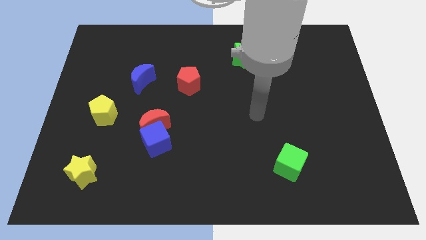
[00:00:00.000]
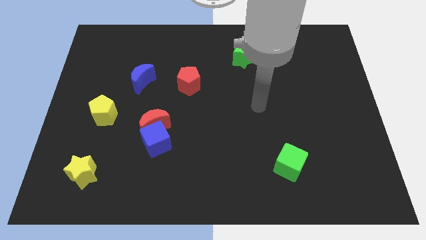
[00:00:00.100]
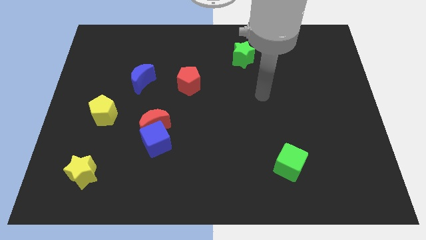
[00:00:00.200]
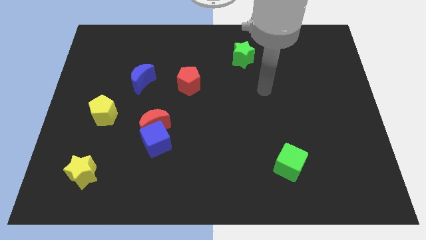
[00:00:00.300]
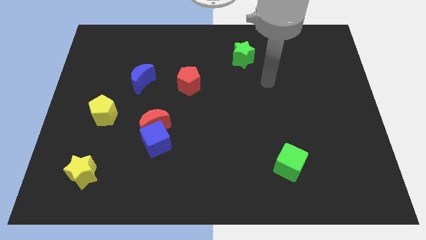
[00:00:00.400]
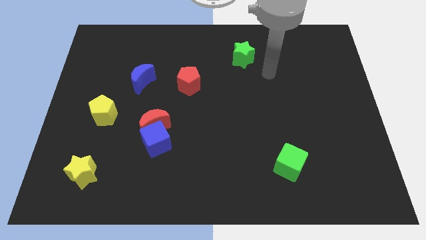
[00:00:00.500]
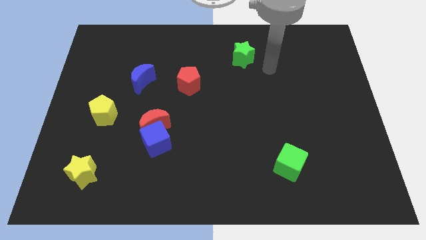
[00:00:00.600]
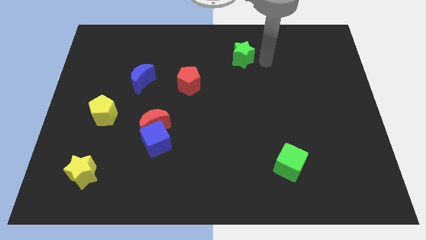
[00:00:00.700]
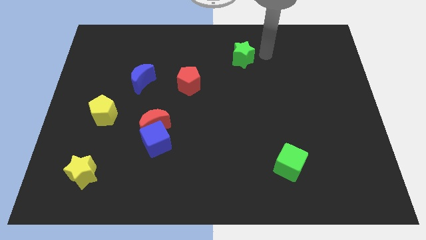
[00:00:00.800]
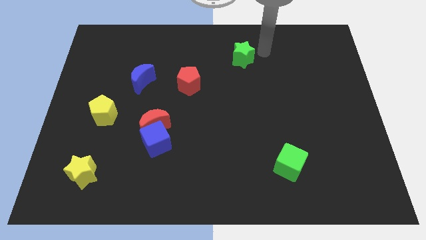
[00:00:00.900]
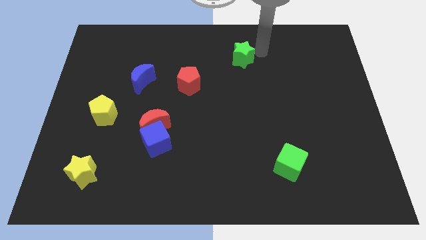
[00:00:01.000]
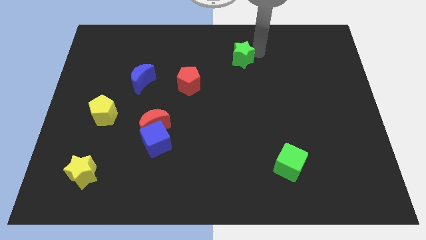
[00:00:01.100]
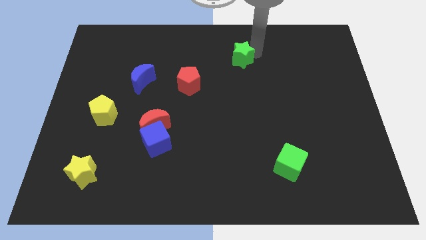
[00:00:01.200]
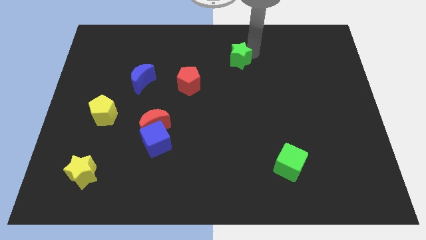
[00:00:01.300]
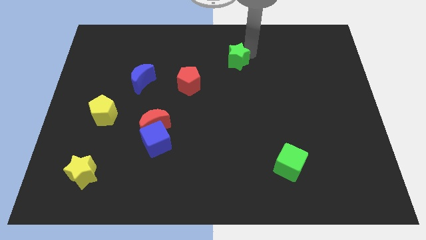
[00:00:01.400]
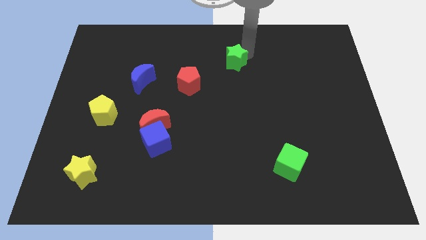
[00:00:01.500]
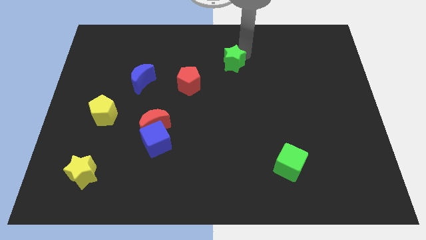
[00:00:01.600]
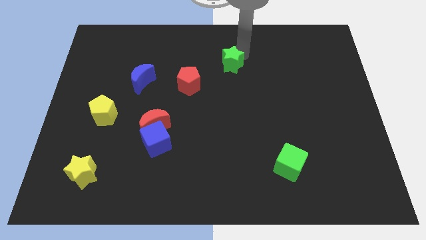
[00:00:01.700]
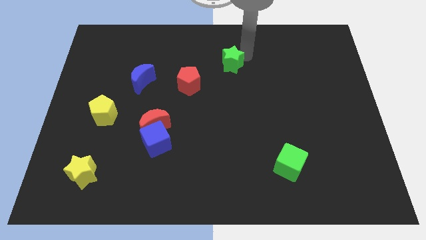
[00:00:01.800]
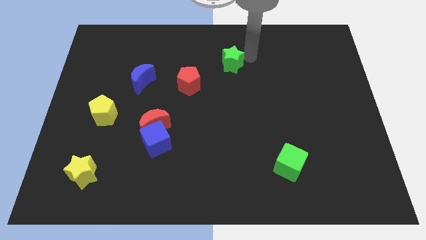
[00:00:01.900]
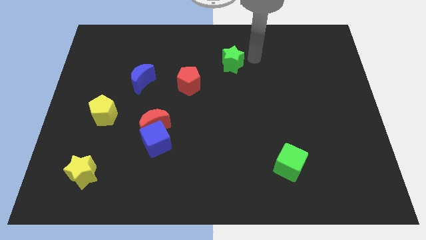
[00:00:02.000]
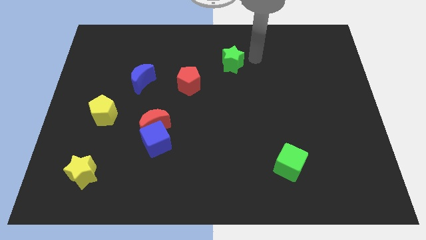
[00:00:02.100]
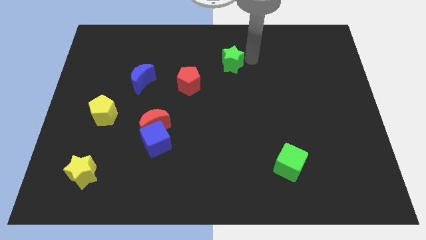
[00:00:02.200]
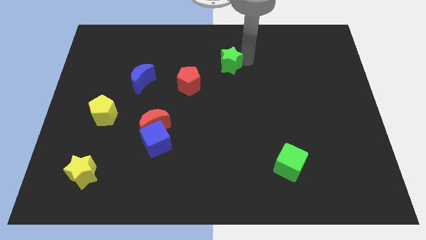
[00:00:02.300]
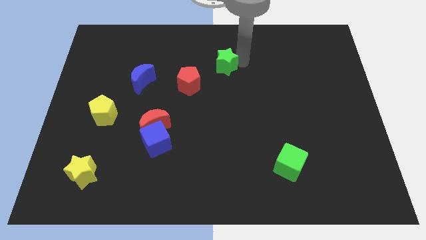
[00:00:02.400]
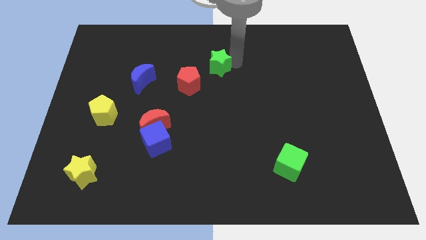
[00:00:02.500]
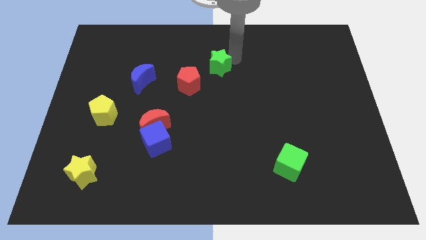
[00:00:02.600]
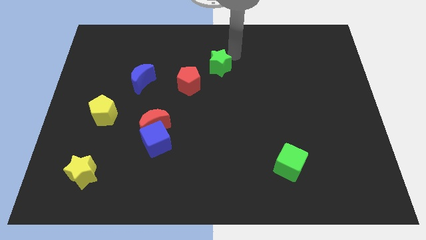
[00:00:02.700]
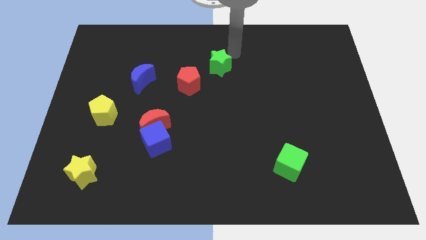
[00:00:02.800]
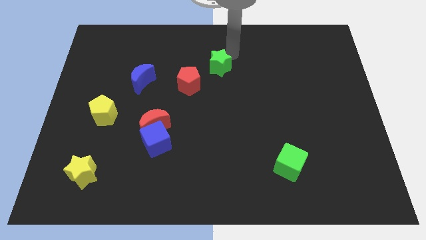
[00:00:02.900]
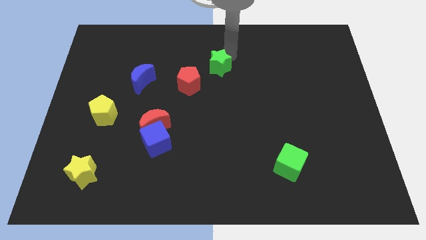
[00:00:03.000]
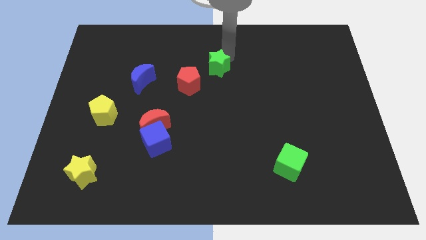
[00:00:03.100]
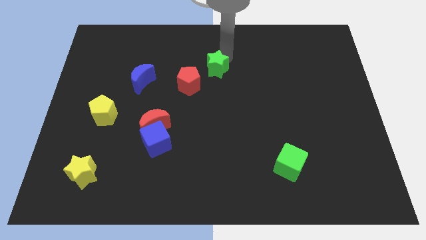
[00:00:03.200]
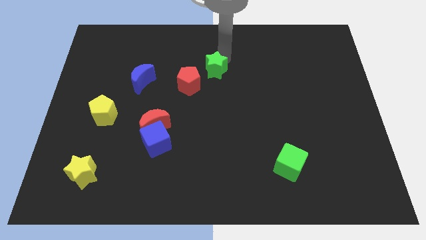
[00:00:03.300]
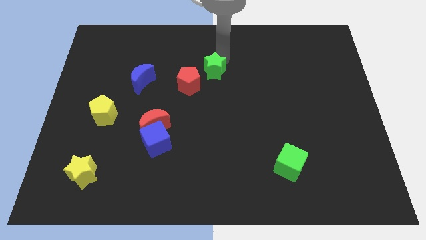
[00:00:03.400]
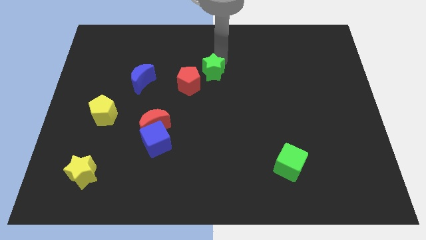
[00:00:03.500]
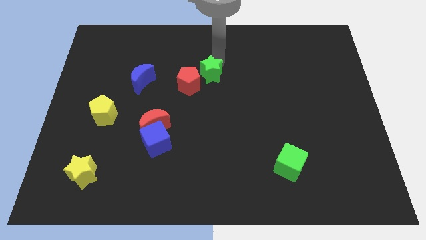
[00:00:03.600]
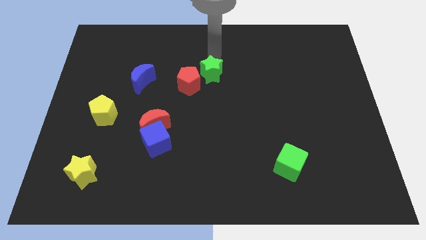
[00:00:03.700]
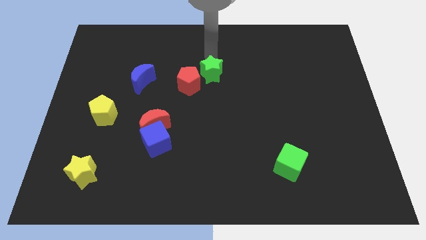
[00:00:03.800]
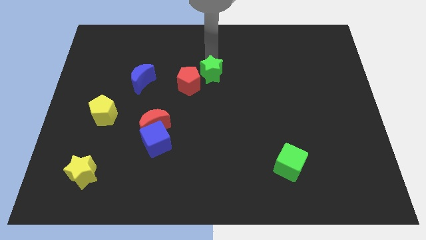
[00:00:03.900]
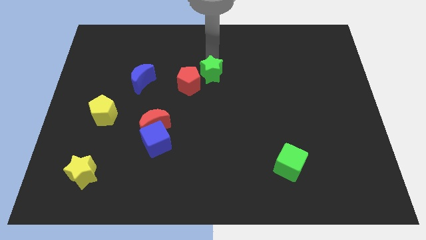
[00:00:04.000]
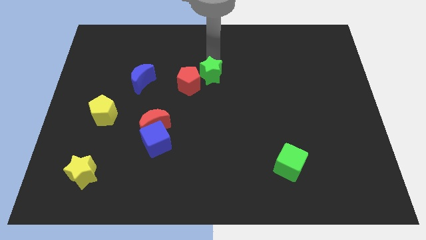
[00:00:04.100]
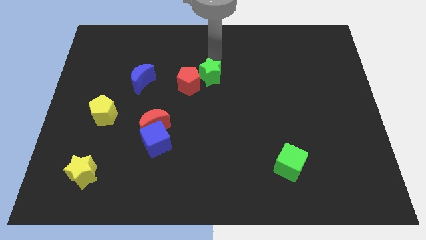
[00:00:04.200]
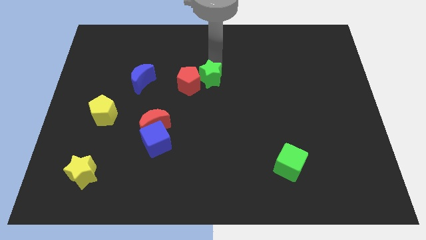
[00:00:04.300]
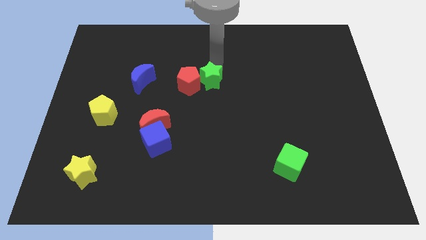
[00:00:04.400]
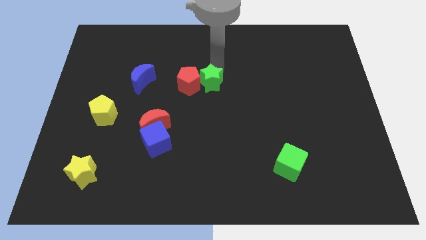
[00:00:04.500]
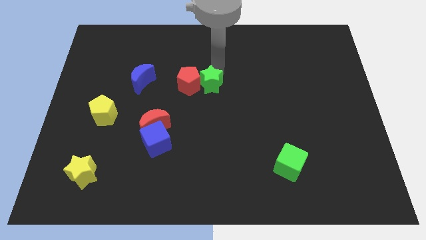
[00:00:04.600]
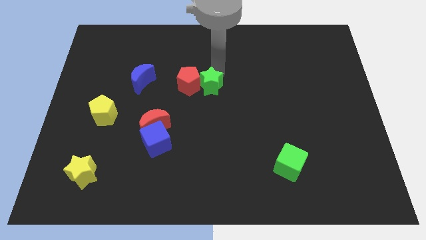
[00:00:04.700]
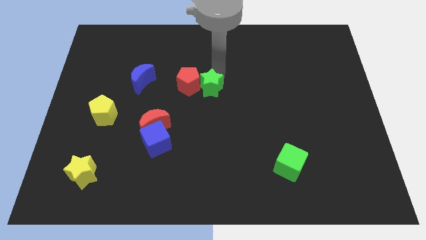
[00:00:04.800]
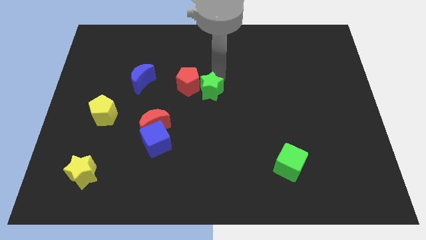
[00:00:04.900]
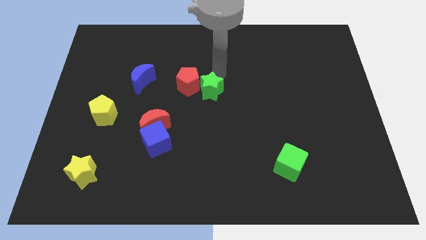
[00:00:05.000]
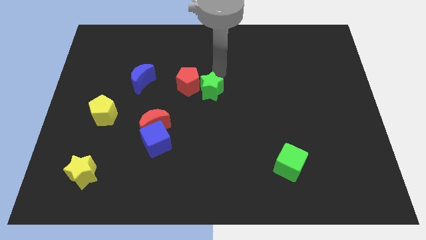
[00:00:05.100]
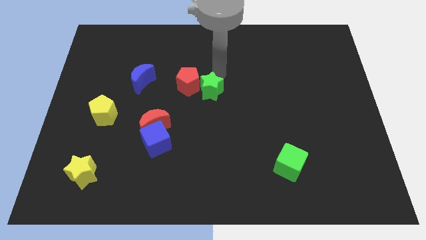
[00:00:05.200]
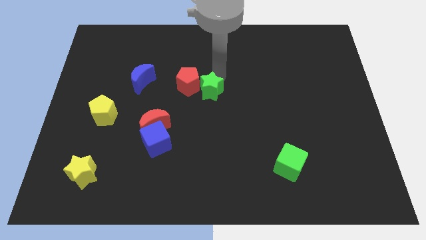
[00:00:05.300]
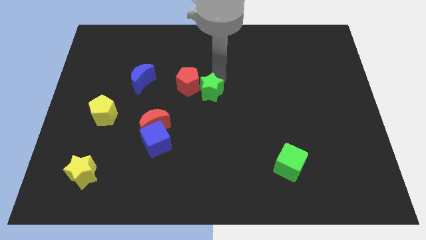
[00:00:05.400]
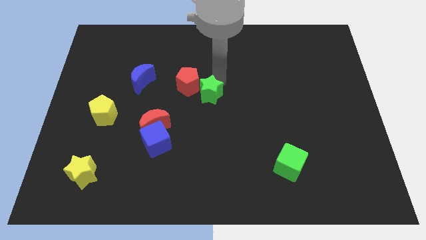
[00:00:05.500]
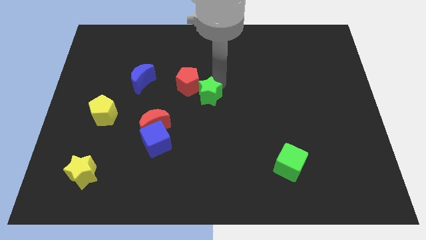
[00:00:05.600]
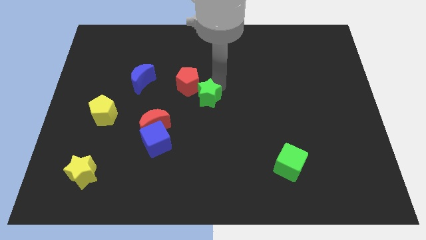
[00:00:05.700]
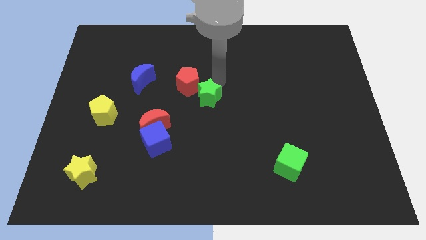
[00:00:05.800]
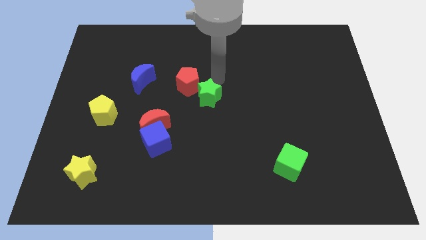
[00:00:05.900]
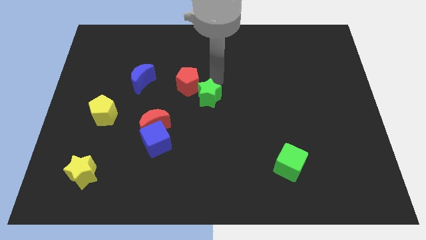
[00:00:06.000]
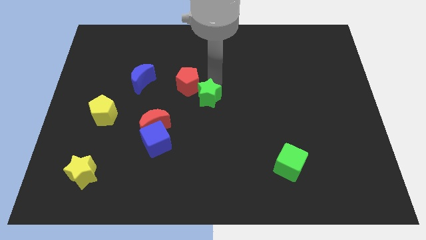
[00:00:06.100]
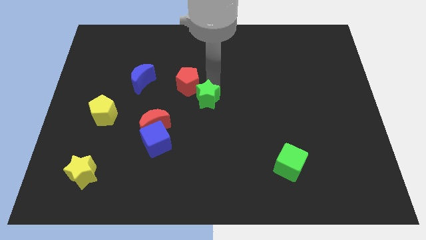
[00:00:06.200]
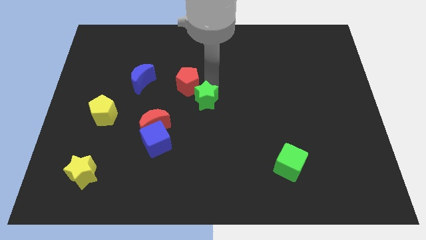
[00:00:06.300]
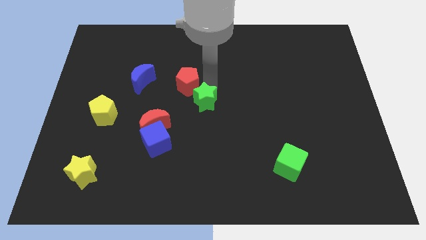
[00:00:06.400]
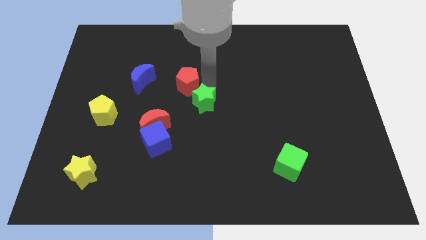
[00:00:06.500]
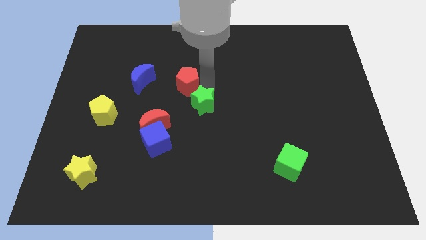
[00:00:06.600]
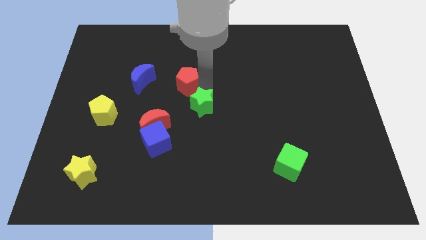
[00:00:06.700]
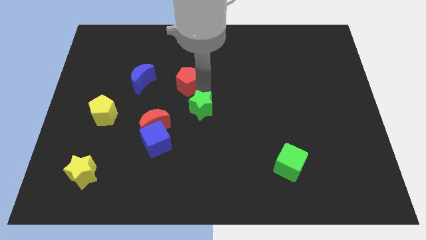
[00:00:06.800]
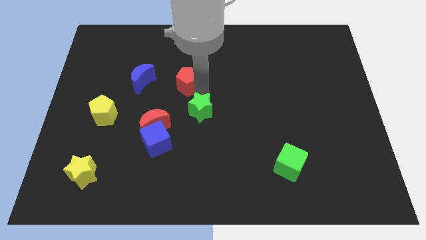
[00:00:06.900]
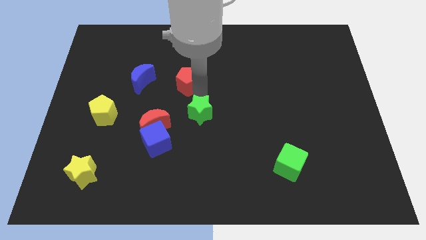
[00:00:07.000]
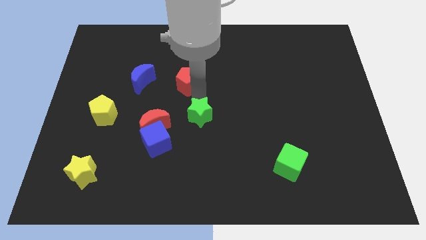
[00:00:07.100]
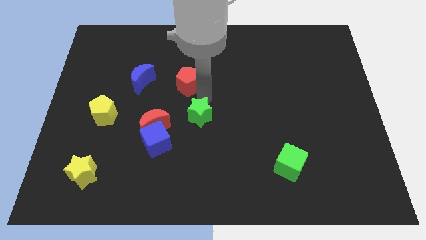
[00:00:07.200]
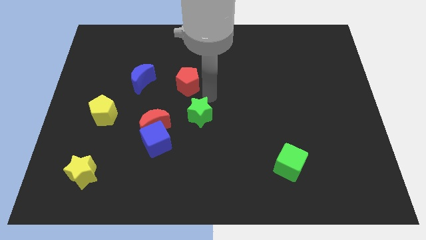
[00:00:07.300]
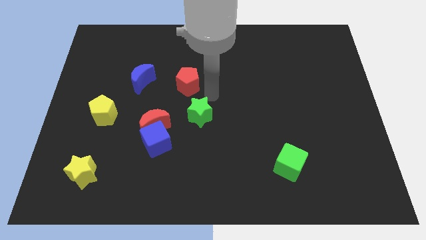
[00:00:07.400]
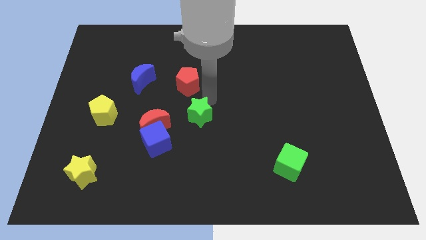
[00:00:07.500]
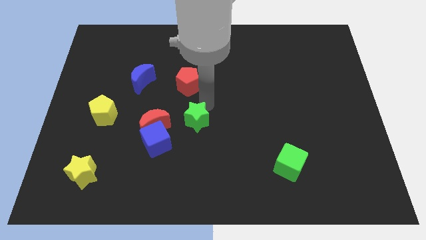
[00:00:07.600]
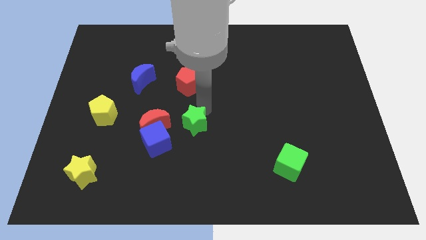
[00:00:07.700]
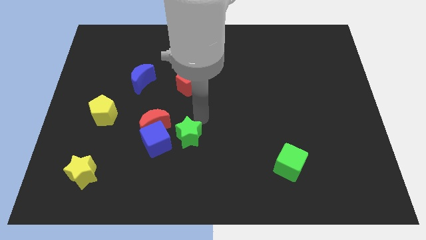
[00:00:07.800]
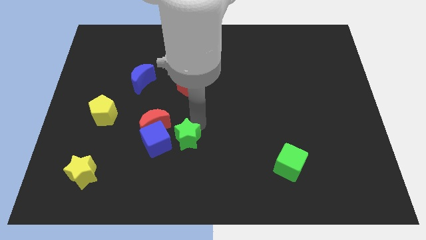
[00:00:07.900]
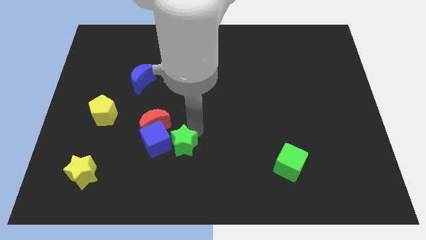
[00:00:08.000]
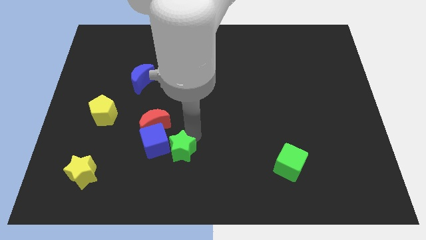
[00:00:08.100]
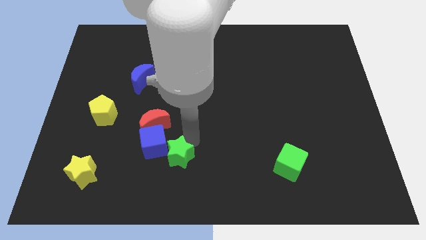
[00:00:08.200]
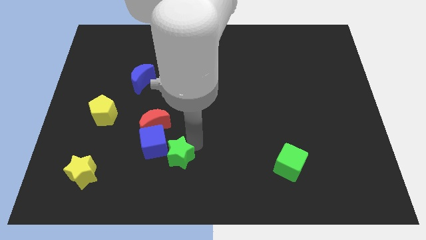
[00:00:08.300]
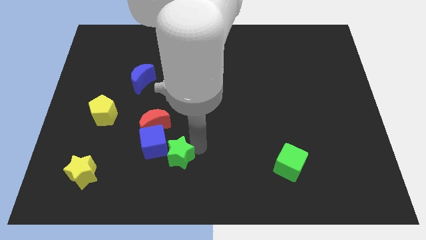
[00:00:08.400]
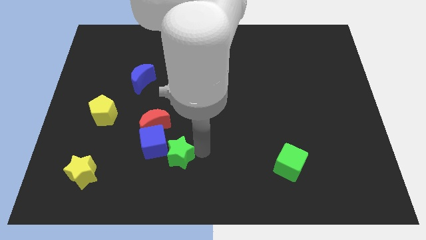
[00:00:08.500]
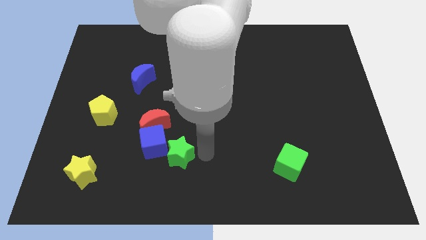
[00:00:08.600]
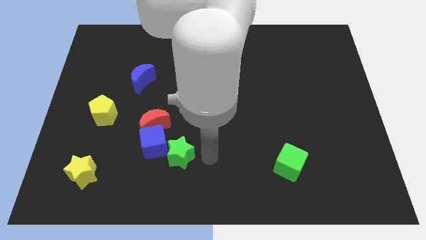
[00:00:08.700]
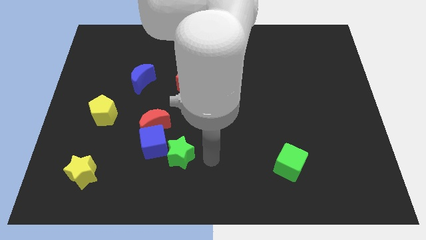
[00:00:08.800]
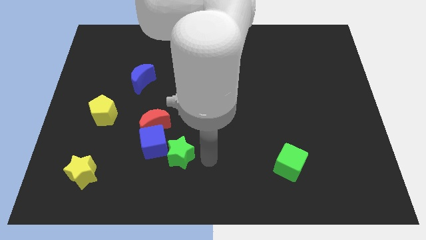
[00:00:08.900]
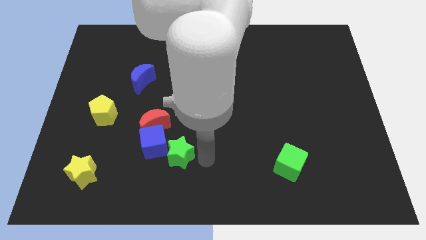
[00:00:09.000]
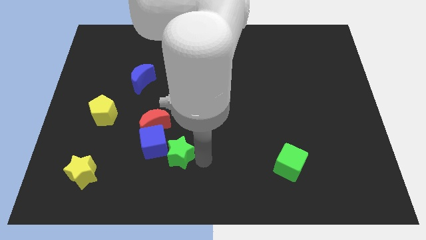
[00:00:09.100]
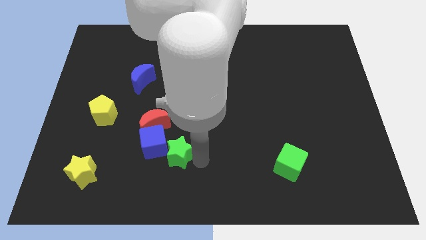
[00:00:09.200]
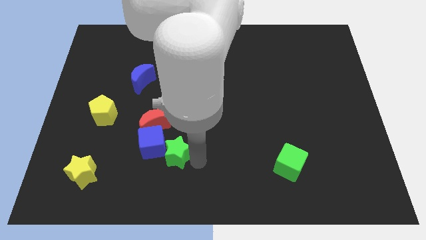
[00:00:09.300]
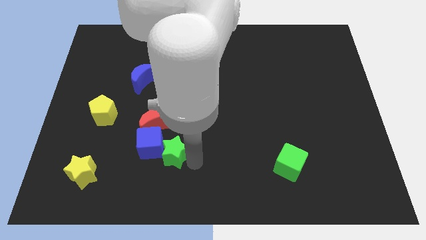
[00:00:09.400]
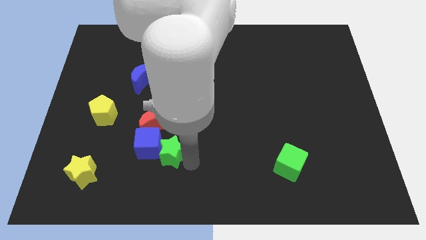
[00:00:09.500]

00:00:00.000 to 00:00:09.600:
move the green star to the bottom side of the red moon
